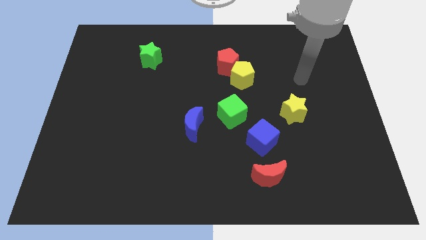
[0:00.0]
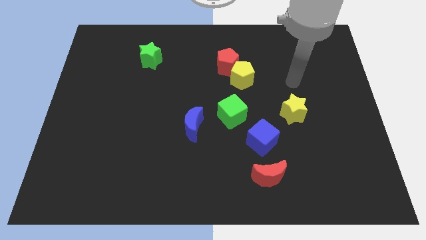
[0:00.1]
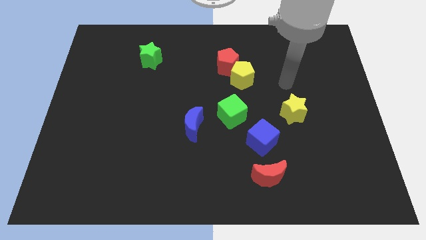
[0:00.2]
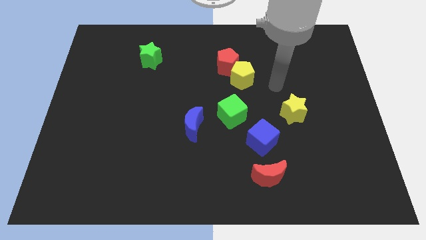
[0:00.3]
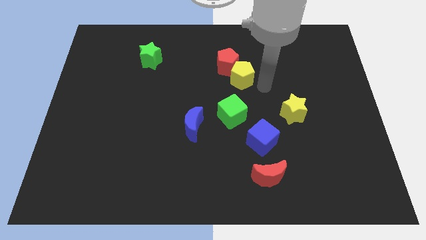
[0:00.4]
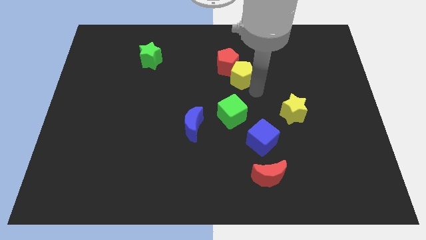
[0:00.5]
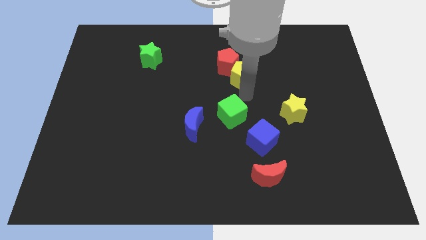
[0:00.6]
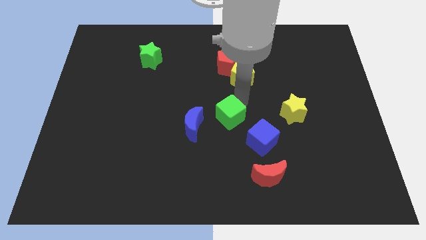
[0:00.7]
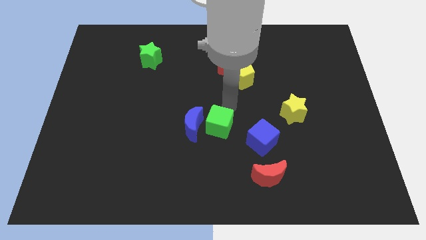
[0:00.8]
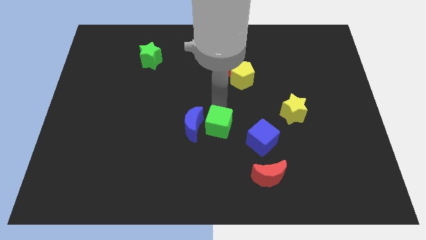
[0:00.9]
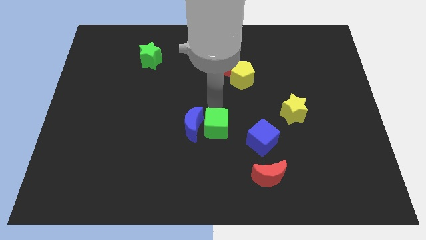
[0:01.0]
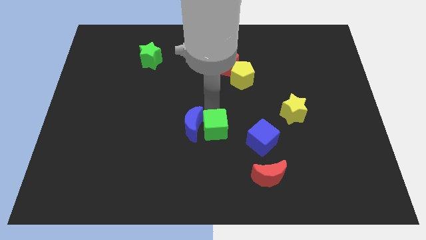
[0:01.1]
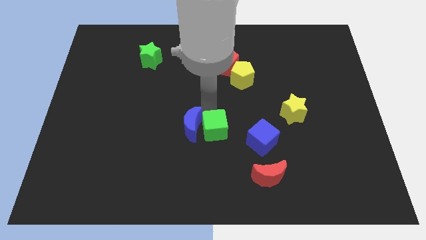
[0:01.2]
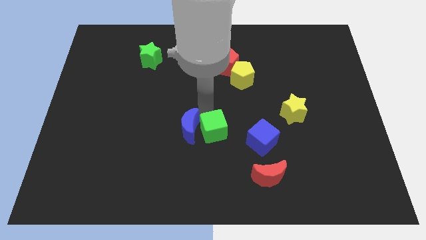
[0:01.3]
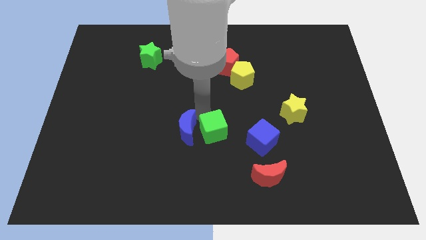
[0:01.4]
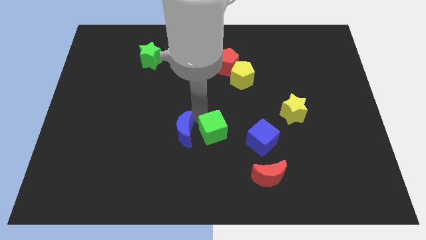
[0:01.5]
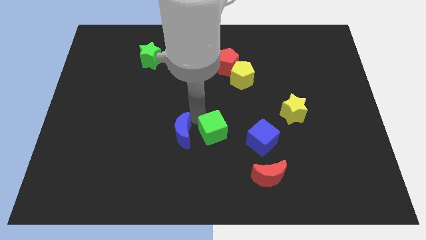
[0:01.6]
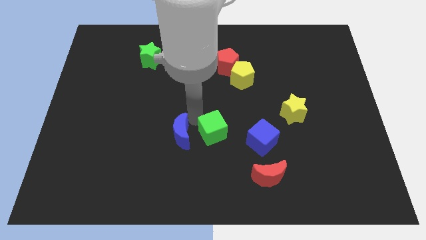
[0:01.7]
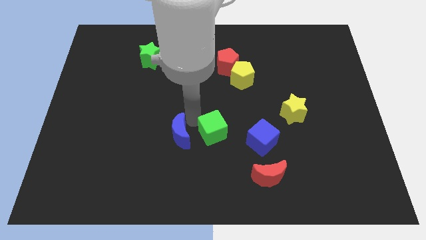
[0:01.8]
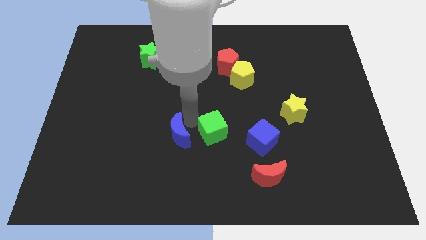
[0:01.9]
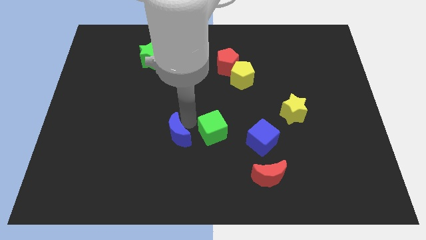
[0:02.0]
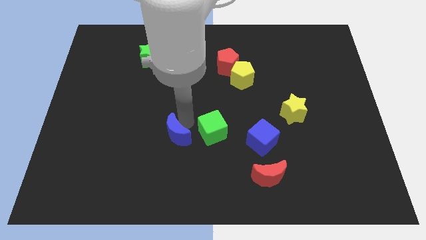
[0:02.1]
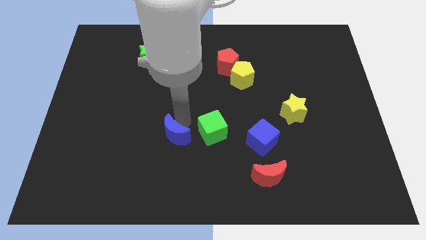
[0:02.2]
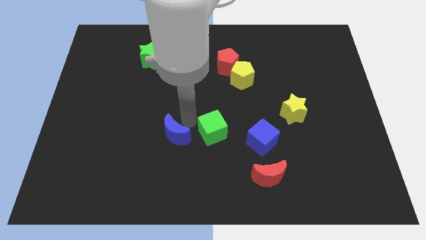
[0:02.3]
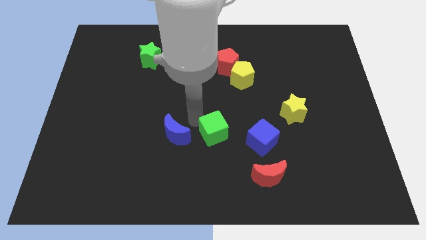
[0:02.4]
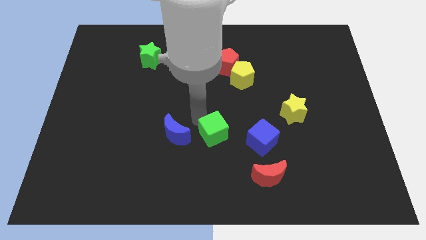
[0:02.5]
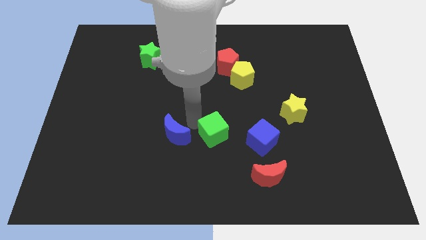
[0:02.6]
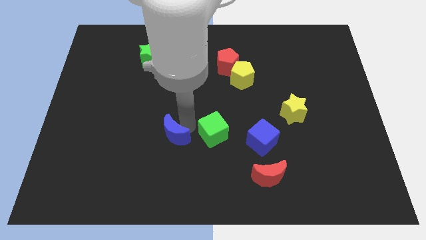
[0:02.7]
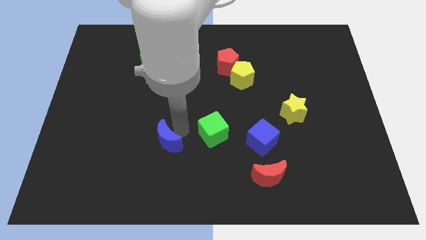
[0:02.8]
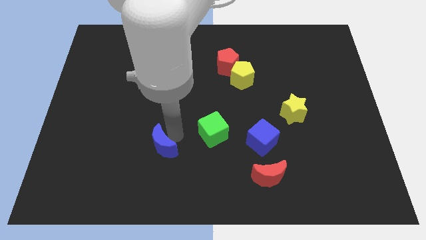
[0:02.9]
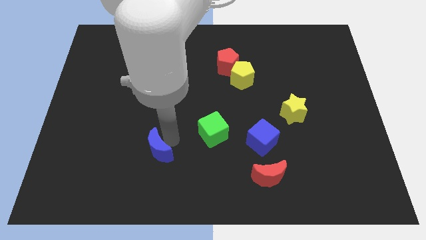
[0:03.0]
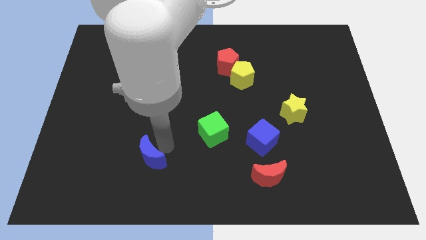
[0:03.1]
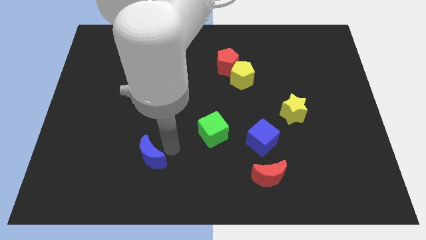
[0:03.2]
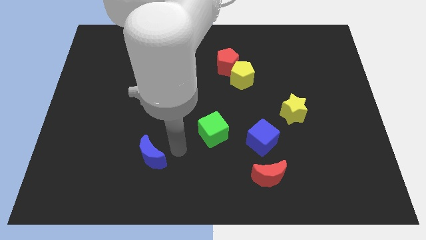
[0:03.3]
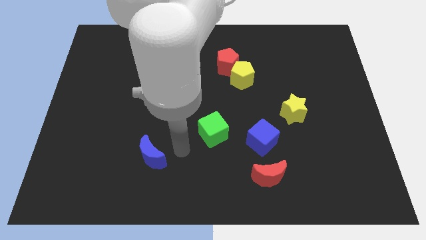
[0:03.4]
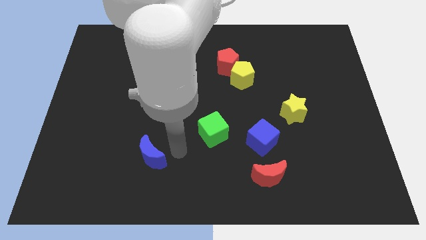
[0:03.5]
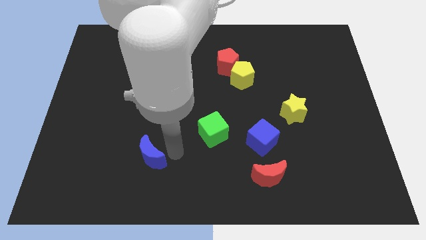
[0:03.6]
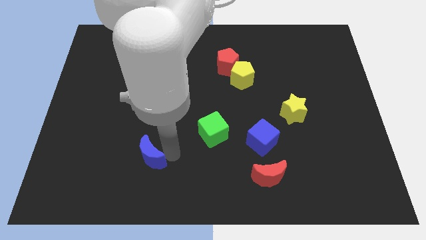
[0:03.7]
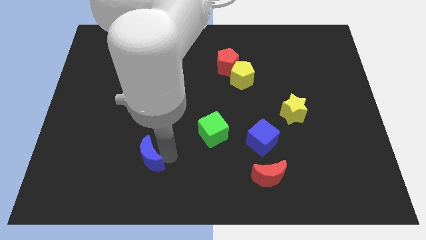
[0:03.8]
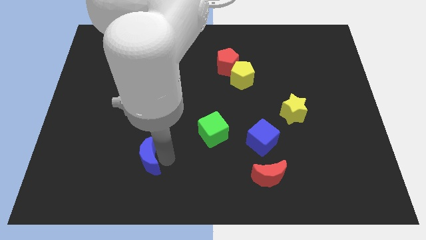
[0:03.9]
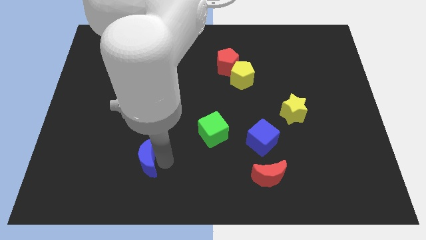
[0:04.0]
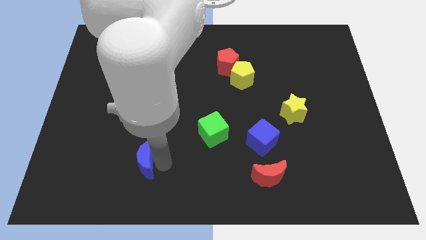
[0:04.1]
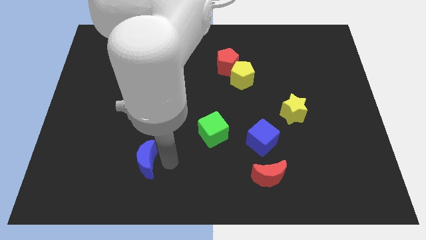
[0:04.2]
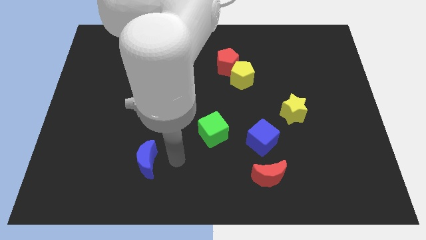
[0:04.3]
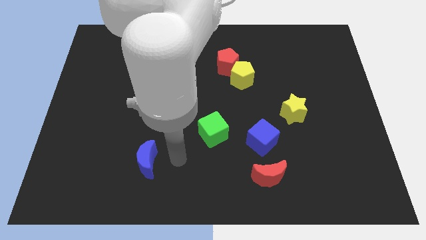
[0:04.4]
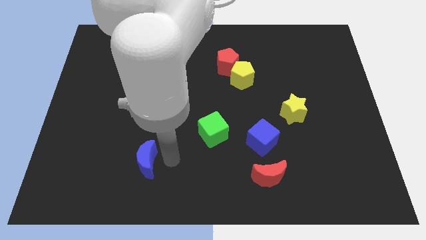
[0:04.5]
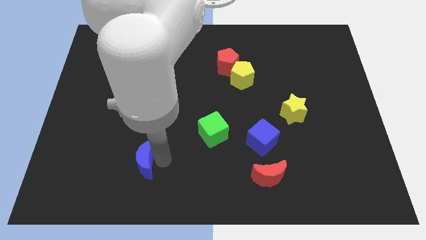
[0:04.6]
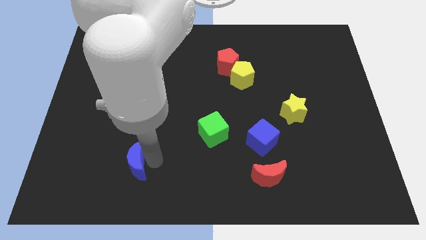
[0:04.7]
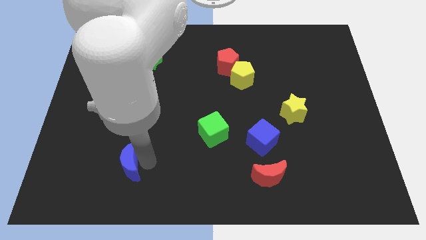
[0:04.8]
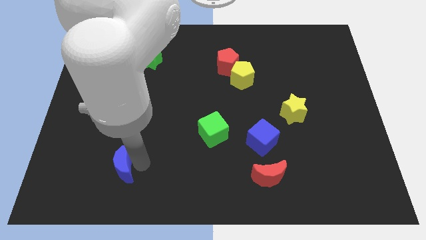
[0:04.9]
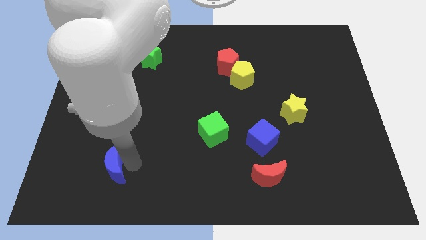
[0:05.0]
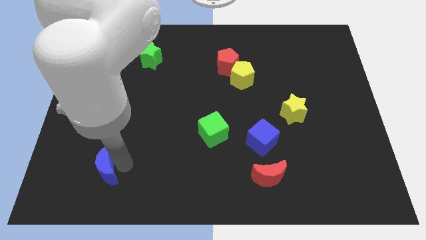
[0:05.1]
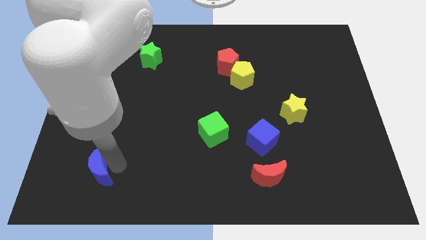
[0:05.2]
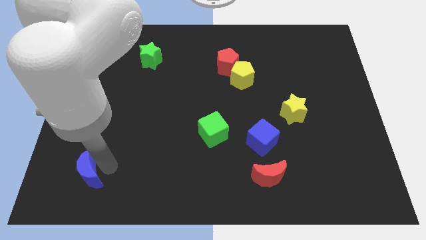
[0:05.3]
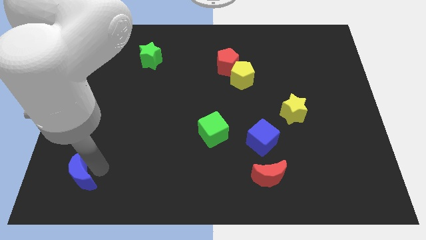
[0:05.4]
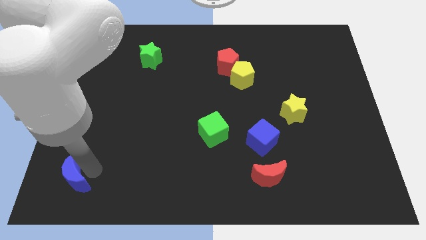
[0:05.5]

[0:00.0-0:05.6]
put the blue moon to the bottom left of the board

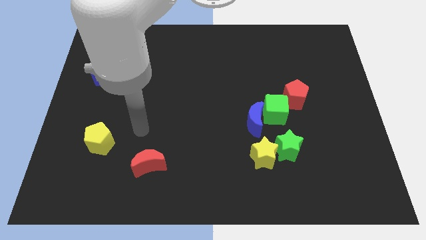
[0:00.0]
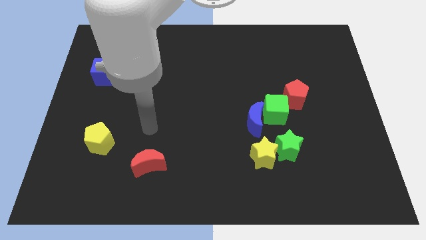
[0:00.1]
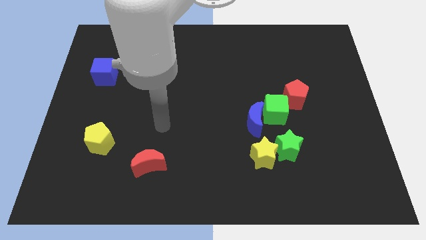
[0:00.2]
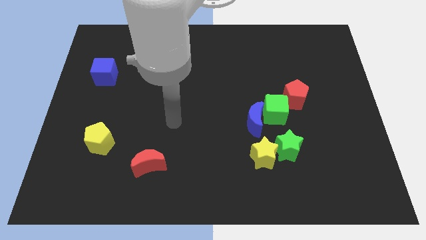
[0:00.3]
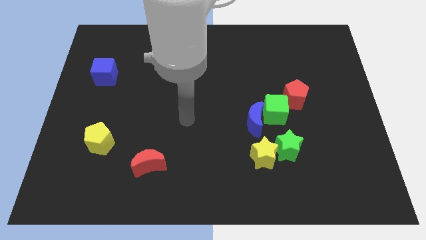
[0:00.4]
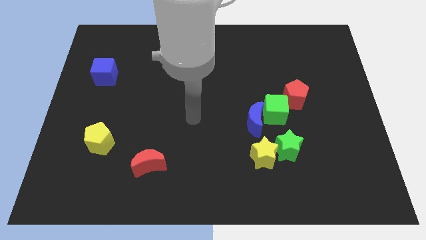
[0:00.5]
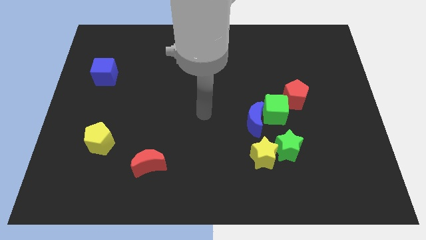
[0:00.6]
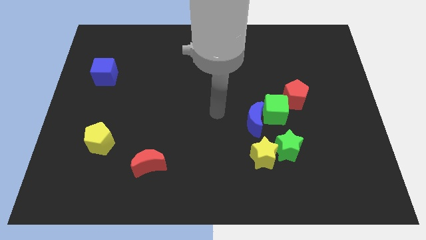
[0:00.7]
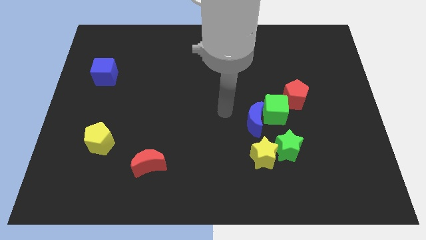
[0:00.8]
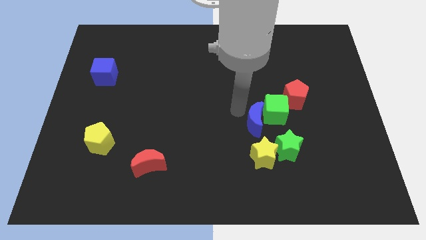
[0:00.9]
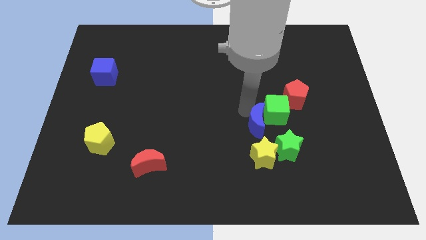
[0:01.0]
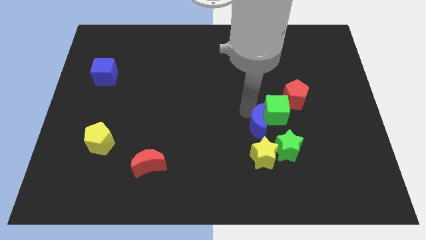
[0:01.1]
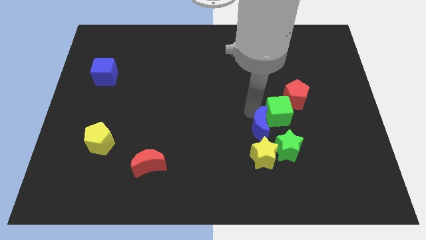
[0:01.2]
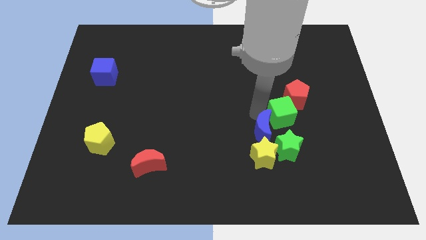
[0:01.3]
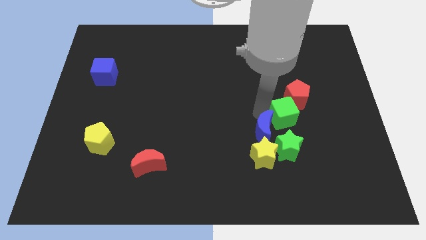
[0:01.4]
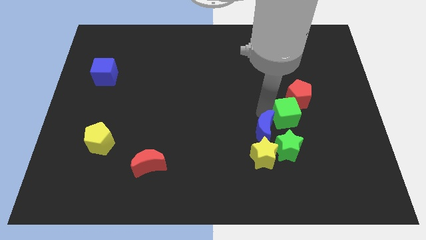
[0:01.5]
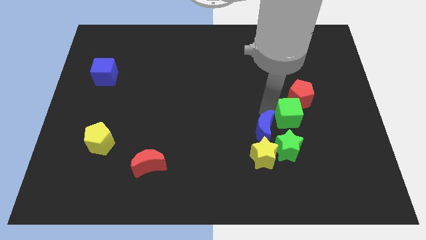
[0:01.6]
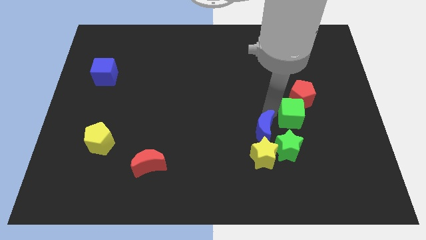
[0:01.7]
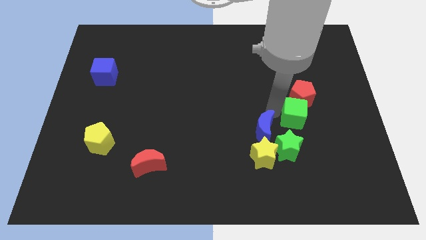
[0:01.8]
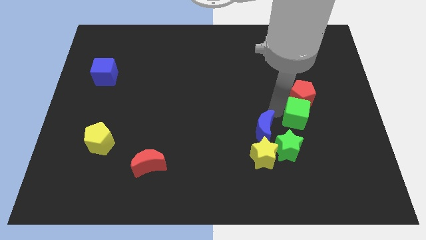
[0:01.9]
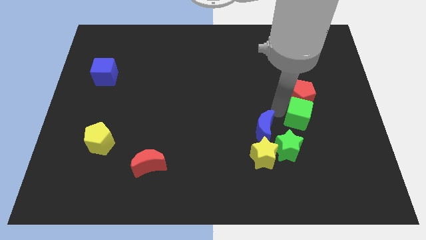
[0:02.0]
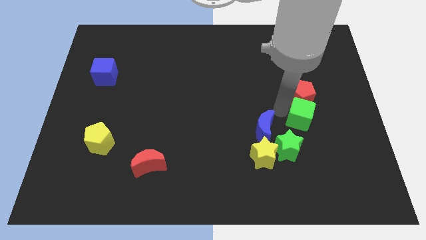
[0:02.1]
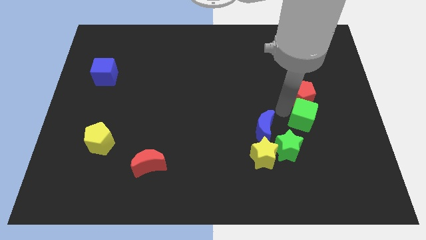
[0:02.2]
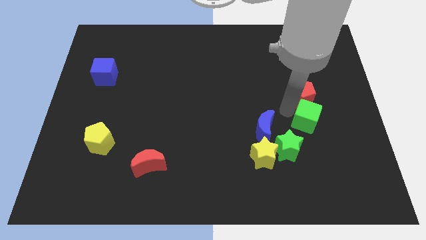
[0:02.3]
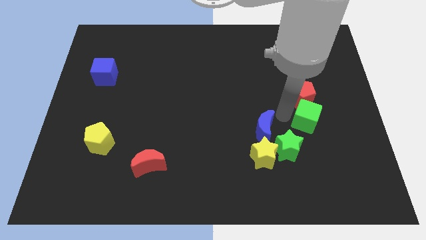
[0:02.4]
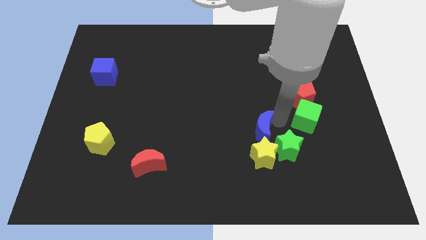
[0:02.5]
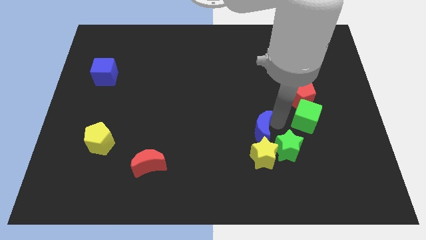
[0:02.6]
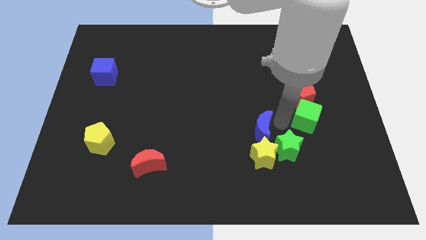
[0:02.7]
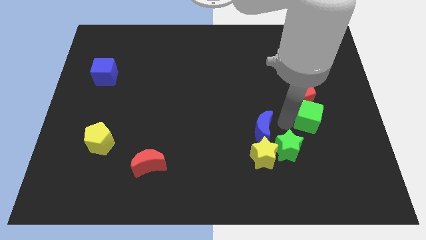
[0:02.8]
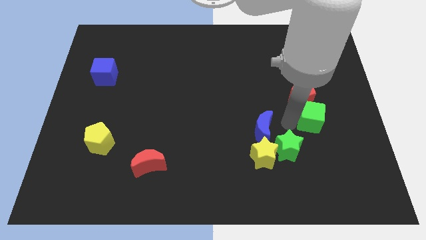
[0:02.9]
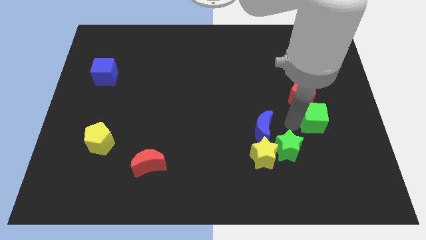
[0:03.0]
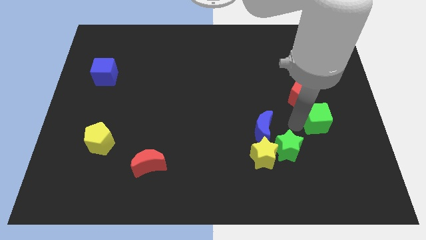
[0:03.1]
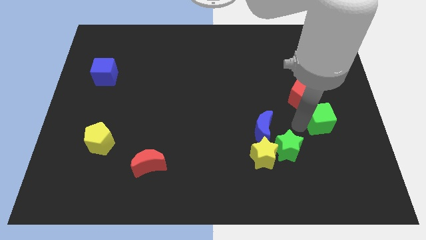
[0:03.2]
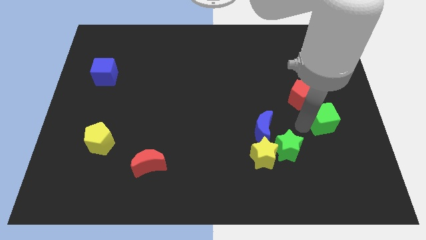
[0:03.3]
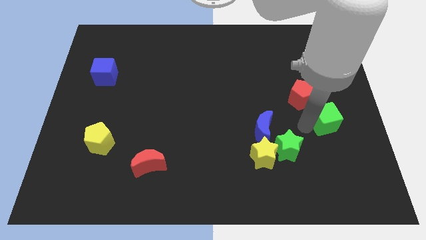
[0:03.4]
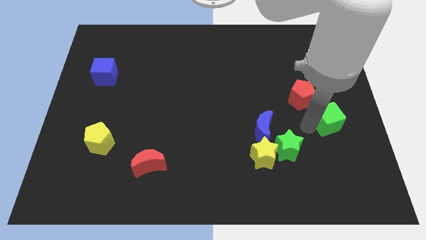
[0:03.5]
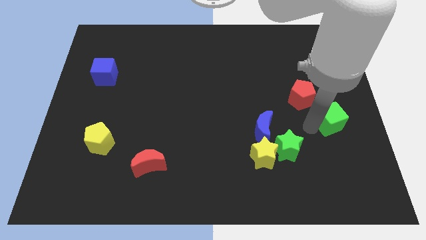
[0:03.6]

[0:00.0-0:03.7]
push the green cube to the right side
